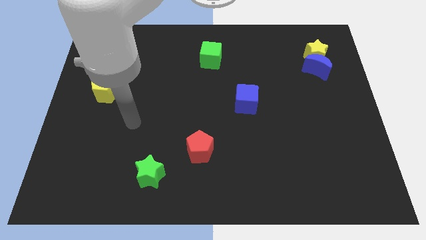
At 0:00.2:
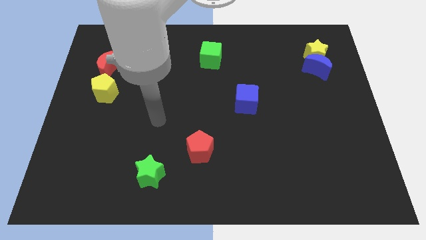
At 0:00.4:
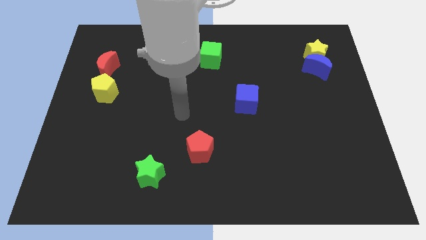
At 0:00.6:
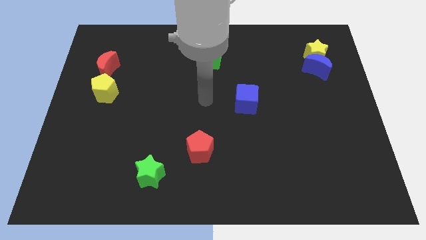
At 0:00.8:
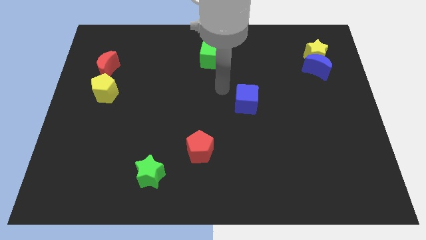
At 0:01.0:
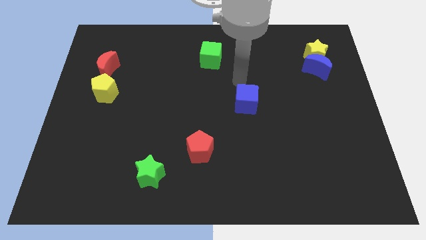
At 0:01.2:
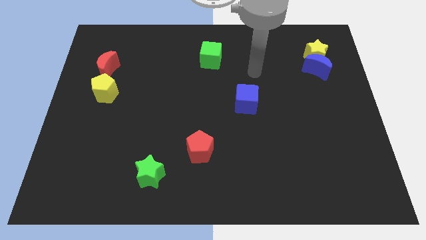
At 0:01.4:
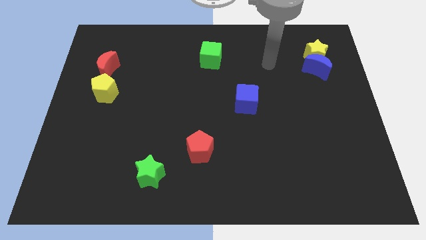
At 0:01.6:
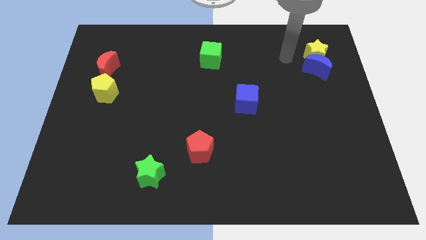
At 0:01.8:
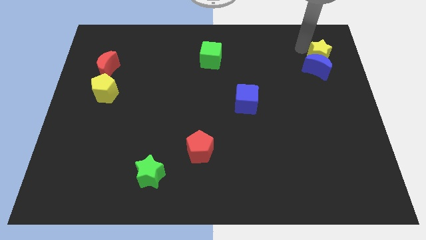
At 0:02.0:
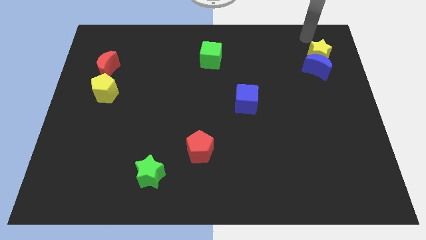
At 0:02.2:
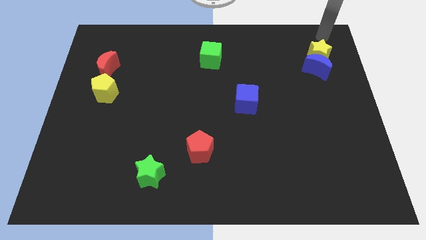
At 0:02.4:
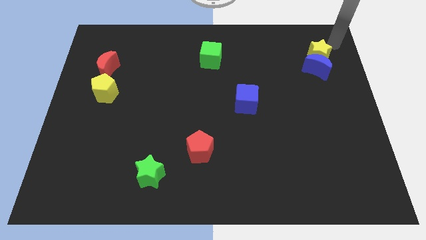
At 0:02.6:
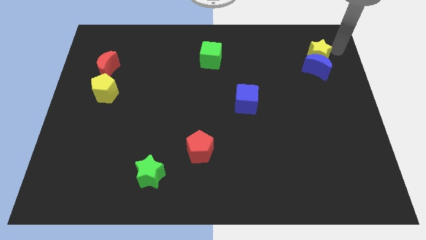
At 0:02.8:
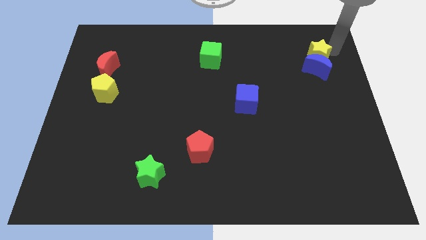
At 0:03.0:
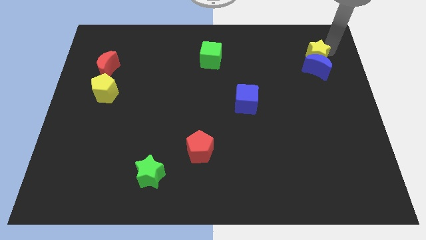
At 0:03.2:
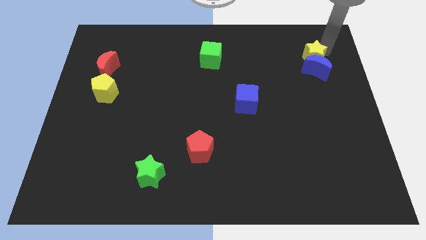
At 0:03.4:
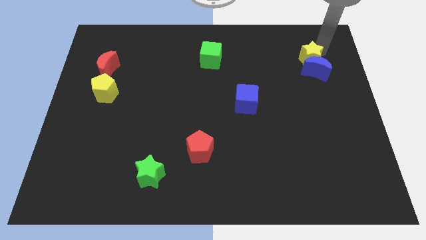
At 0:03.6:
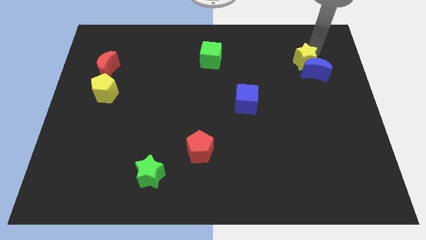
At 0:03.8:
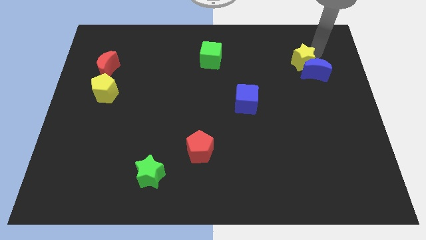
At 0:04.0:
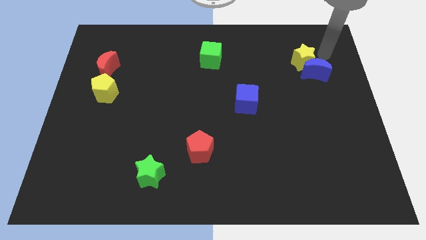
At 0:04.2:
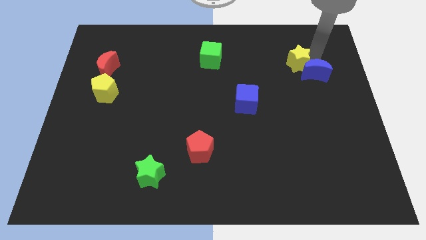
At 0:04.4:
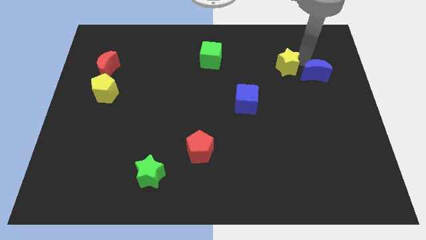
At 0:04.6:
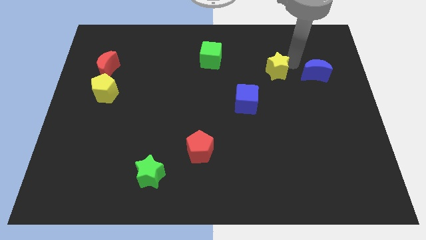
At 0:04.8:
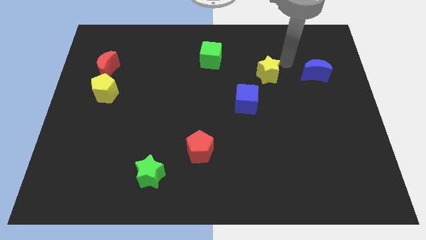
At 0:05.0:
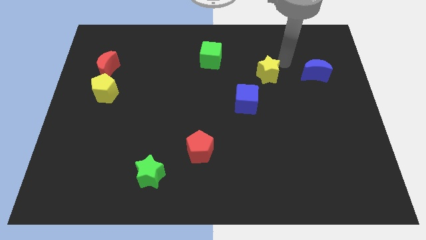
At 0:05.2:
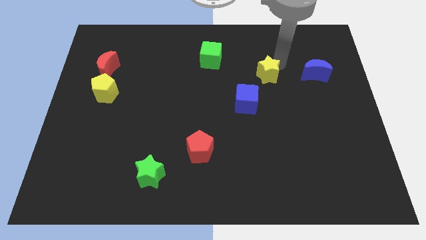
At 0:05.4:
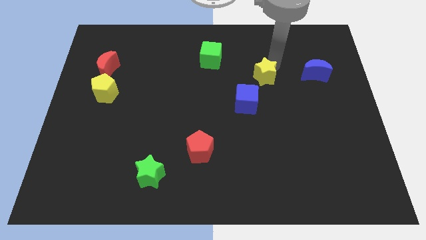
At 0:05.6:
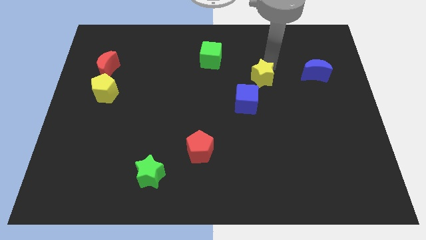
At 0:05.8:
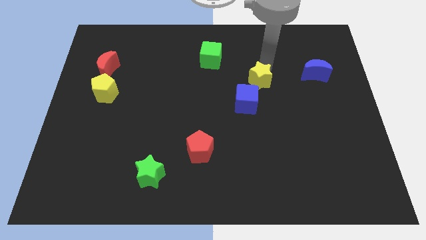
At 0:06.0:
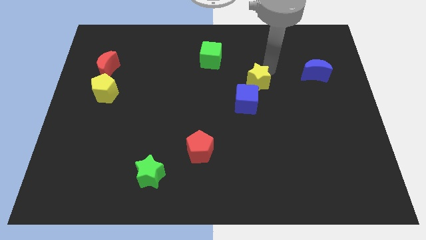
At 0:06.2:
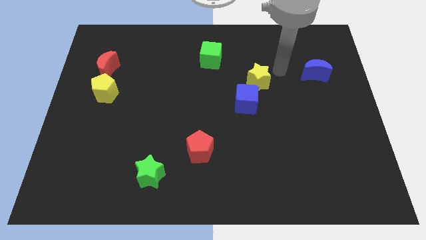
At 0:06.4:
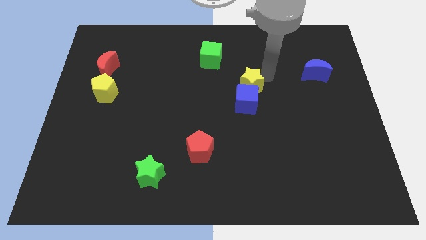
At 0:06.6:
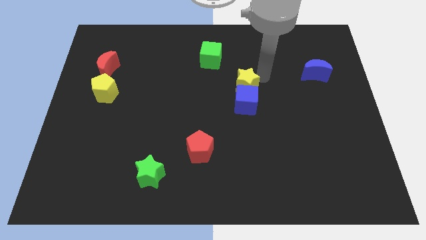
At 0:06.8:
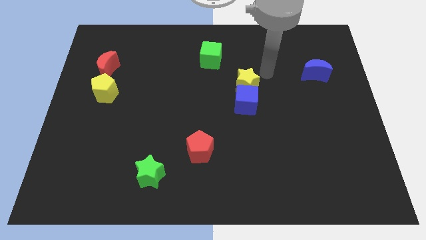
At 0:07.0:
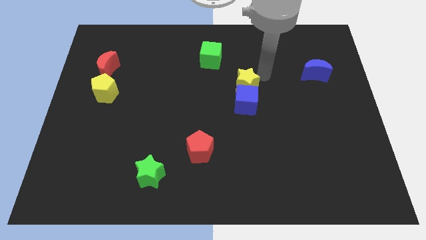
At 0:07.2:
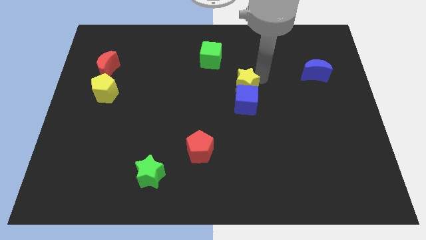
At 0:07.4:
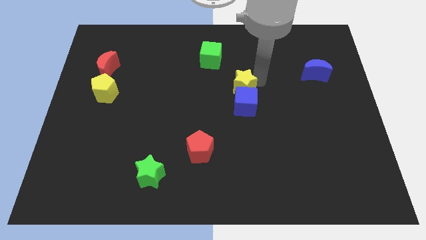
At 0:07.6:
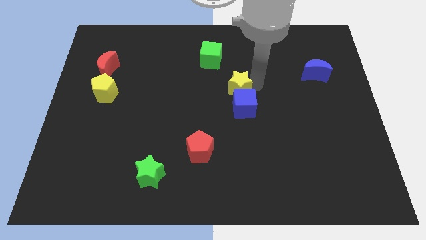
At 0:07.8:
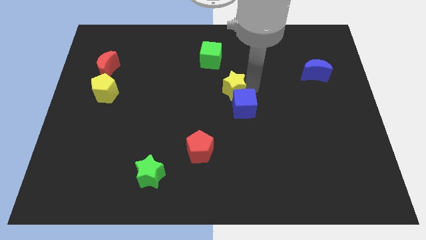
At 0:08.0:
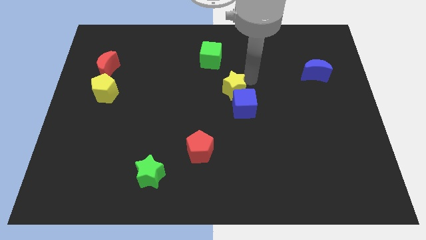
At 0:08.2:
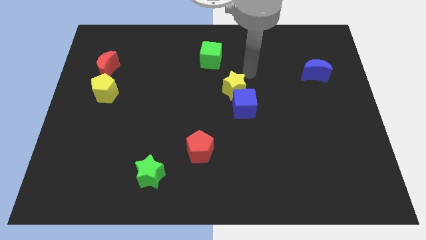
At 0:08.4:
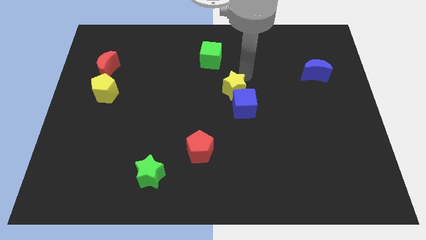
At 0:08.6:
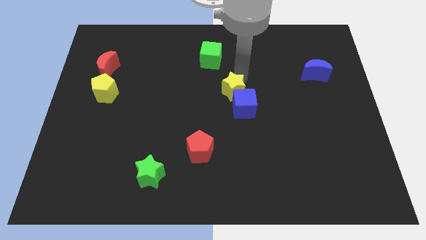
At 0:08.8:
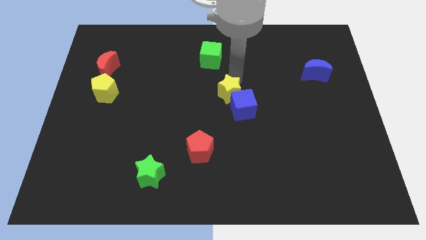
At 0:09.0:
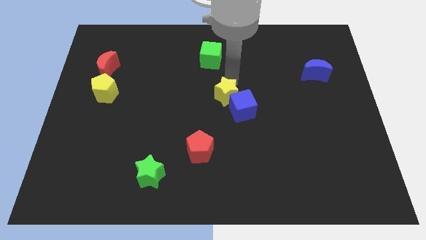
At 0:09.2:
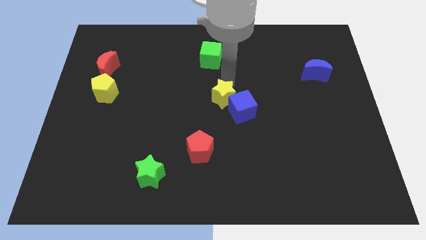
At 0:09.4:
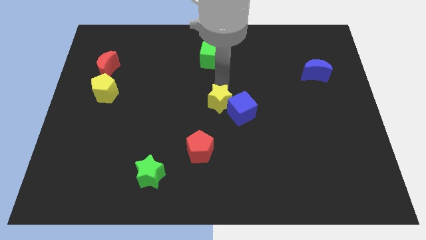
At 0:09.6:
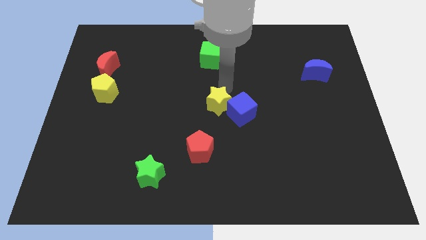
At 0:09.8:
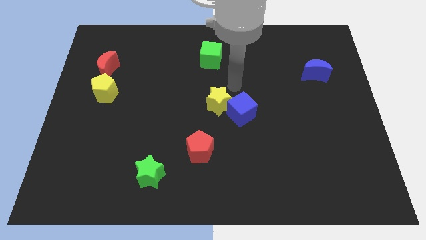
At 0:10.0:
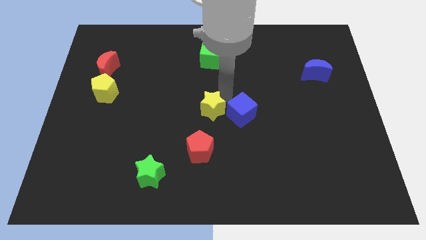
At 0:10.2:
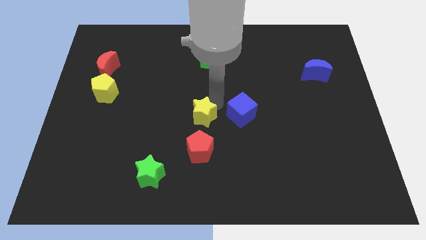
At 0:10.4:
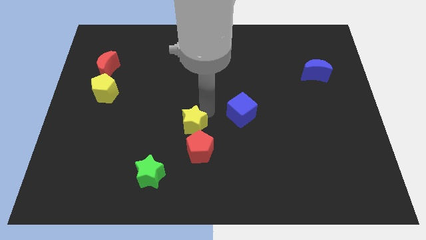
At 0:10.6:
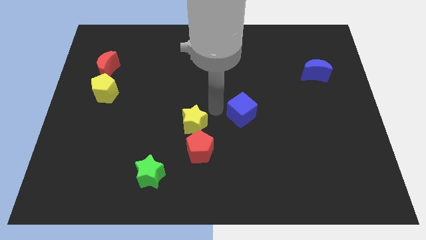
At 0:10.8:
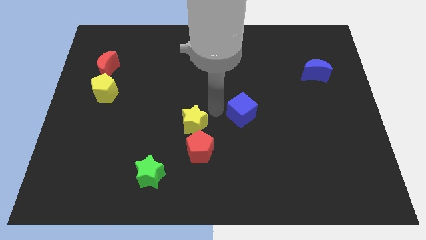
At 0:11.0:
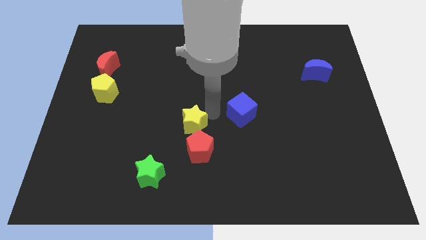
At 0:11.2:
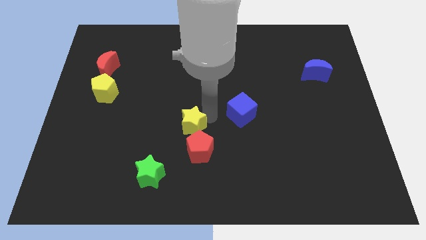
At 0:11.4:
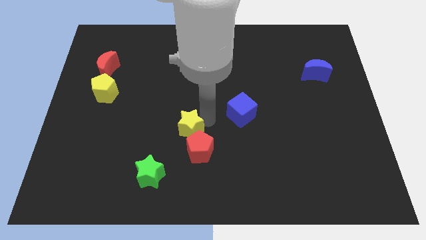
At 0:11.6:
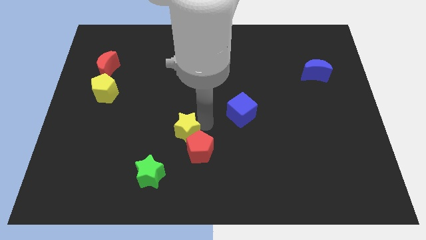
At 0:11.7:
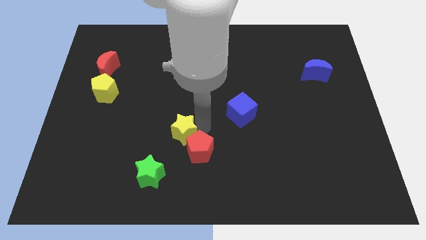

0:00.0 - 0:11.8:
slide the yellow star to the left side of the red pentagon

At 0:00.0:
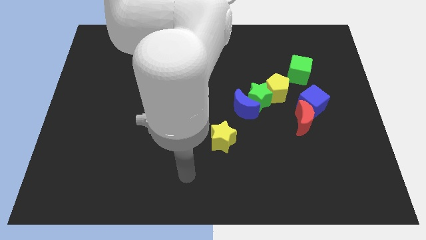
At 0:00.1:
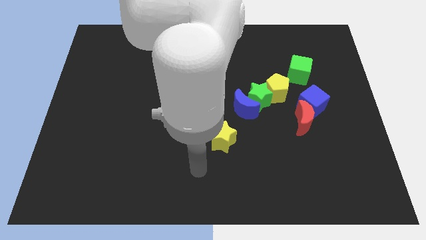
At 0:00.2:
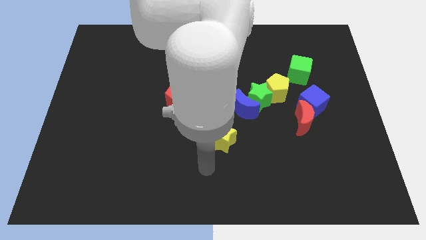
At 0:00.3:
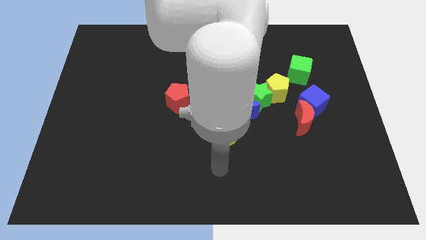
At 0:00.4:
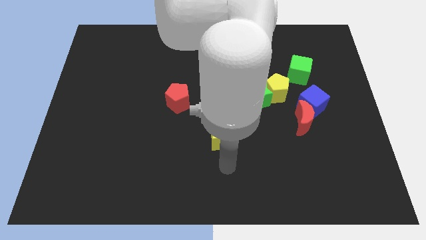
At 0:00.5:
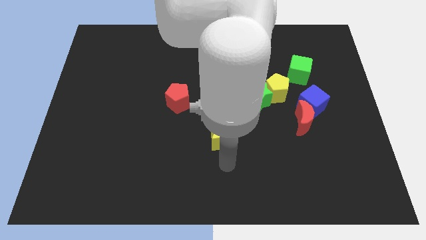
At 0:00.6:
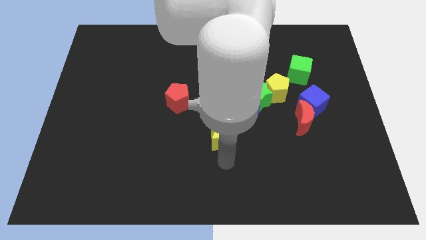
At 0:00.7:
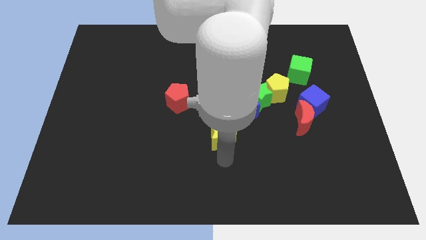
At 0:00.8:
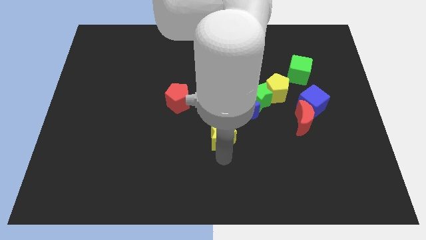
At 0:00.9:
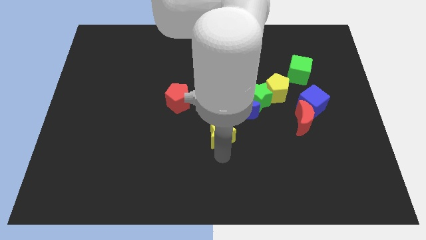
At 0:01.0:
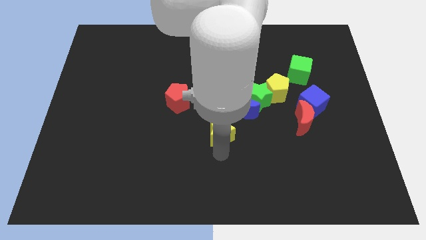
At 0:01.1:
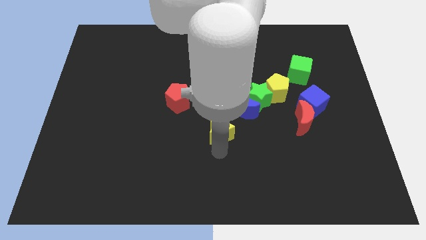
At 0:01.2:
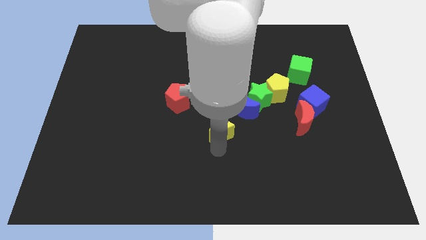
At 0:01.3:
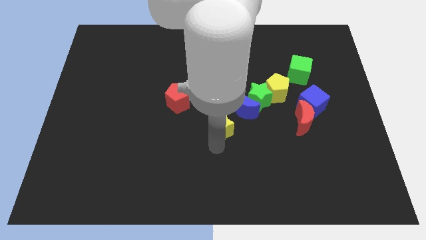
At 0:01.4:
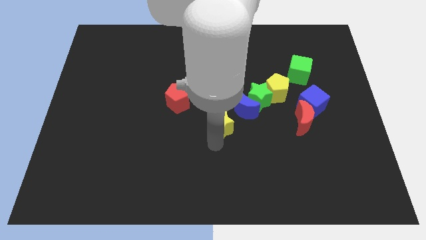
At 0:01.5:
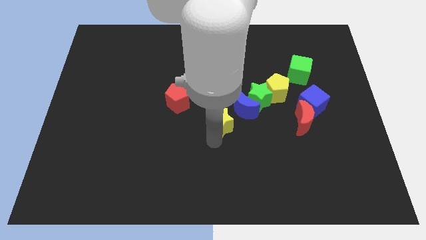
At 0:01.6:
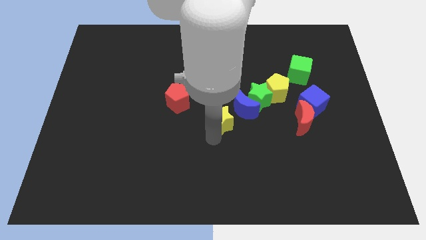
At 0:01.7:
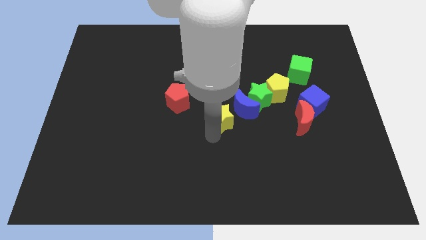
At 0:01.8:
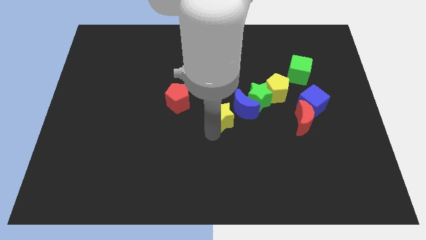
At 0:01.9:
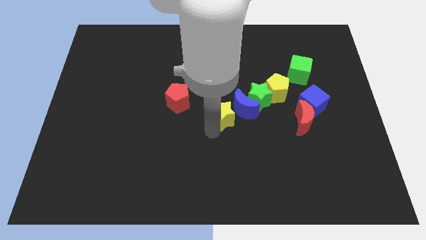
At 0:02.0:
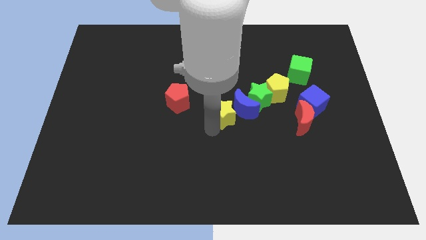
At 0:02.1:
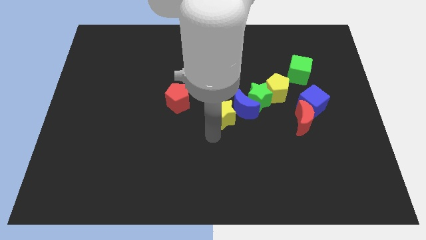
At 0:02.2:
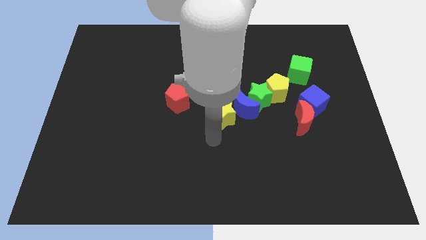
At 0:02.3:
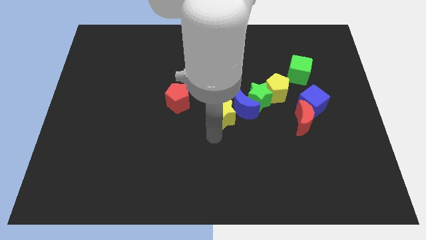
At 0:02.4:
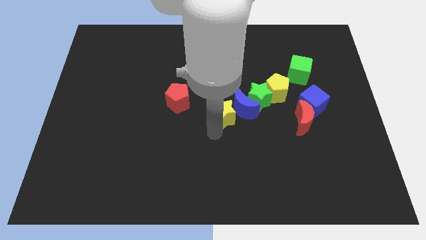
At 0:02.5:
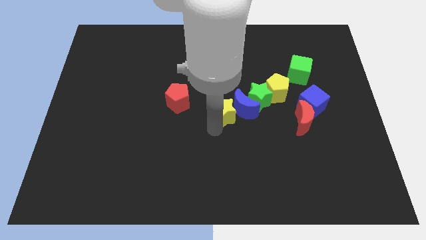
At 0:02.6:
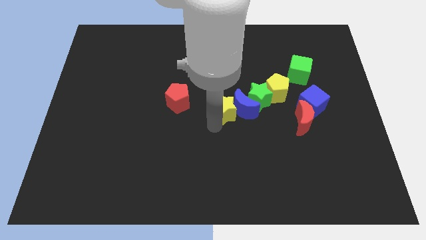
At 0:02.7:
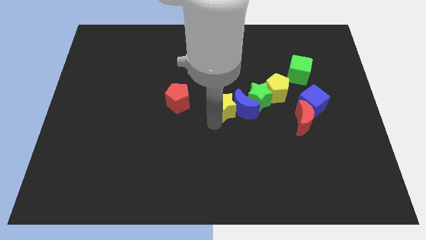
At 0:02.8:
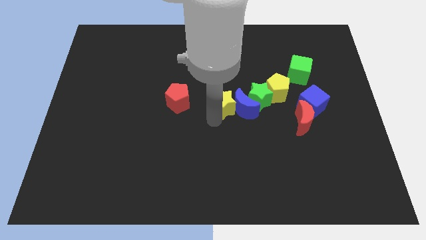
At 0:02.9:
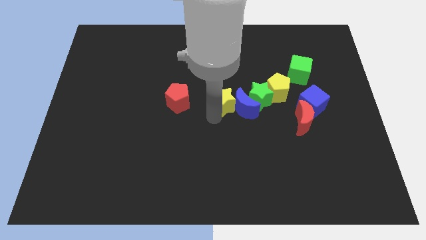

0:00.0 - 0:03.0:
put the yellow star to the left side of the yellow pentagon
